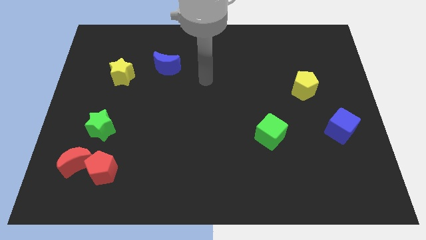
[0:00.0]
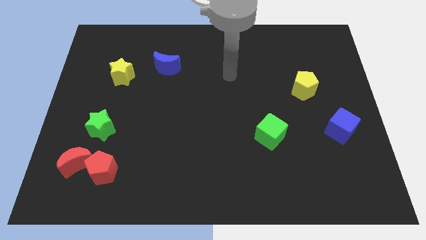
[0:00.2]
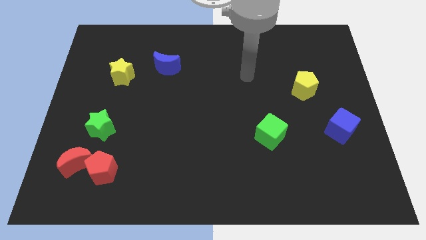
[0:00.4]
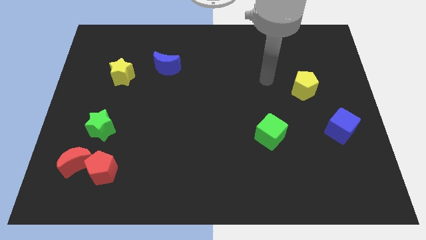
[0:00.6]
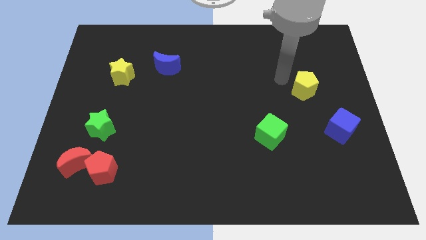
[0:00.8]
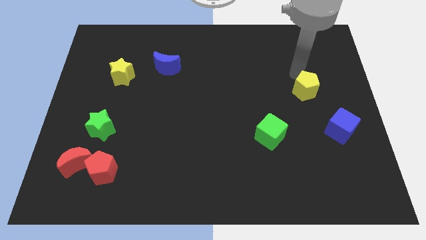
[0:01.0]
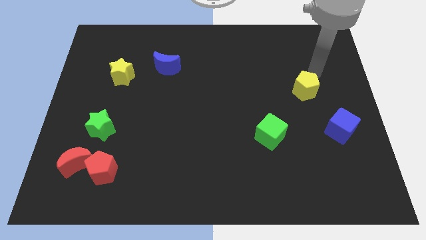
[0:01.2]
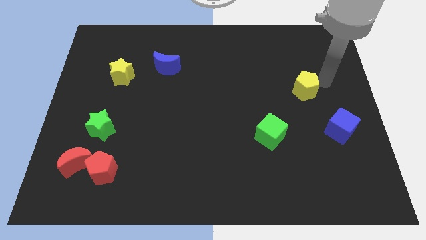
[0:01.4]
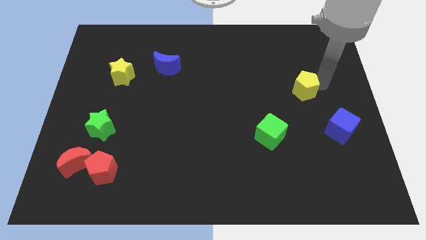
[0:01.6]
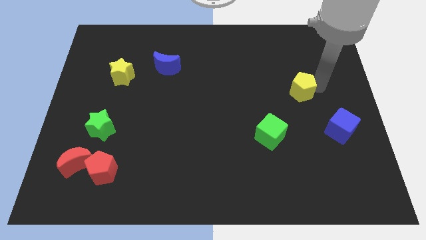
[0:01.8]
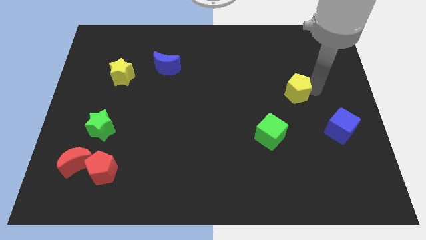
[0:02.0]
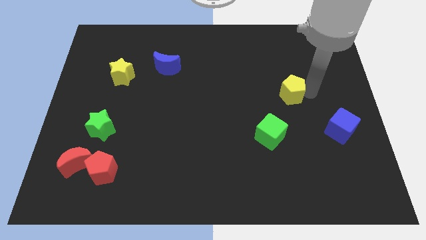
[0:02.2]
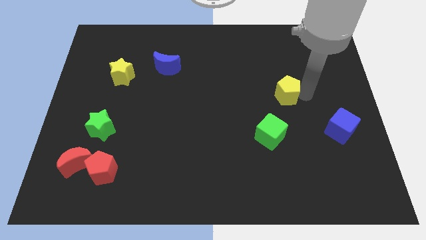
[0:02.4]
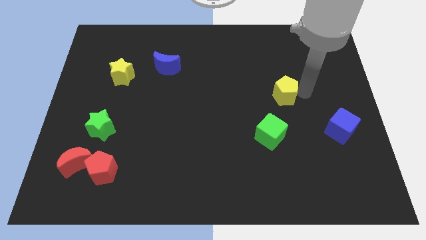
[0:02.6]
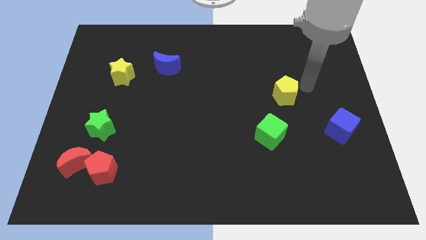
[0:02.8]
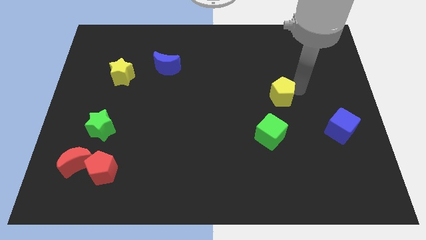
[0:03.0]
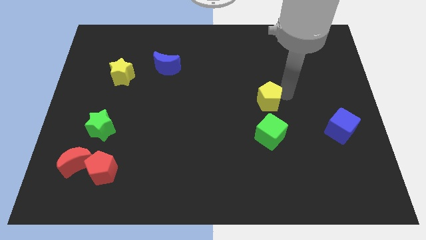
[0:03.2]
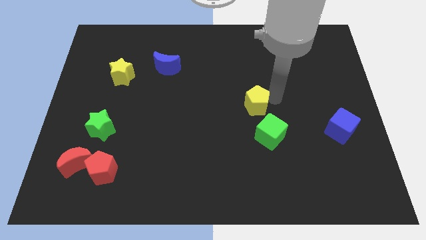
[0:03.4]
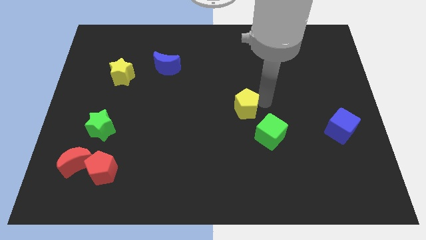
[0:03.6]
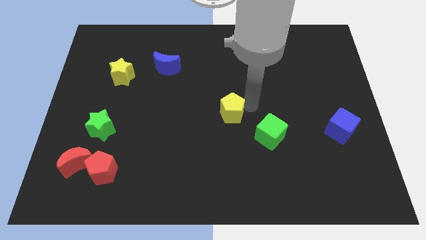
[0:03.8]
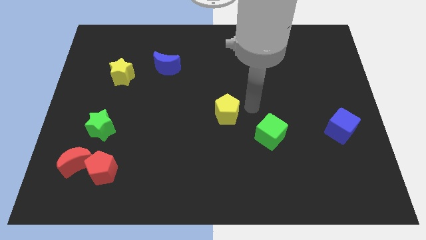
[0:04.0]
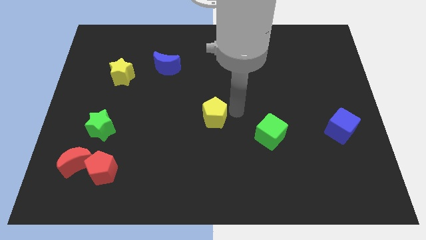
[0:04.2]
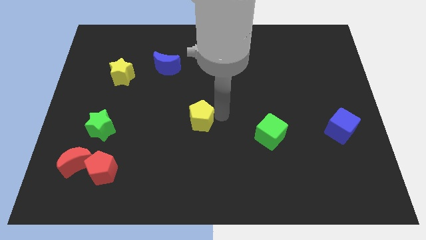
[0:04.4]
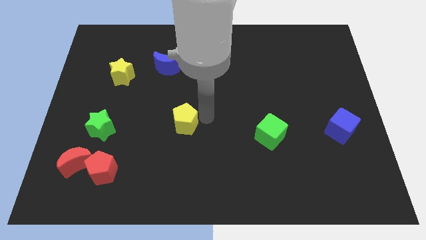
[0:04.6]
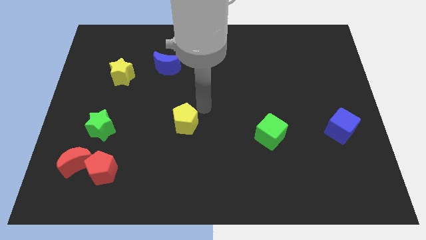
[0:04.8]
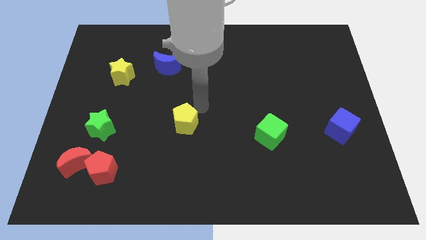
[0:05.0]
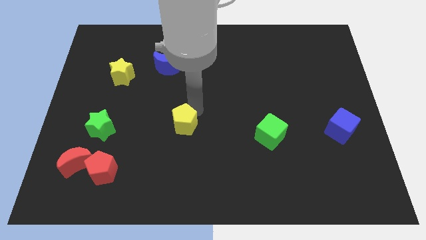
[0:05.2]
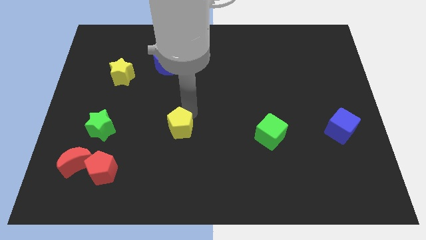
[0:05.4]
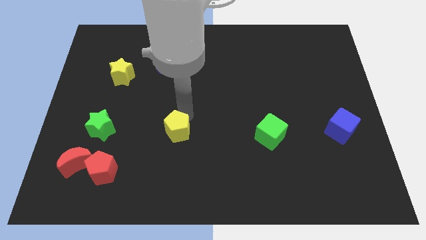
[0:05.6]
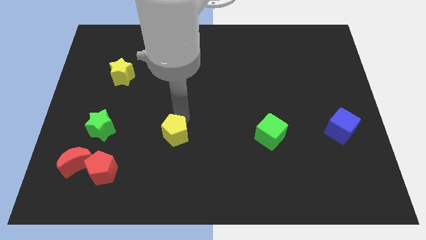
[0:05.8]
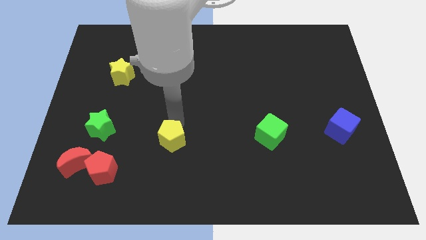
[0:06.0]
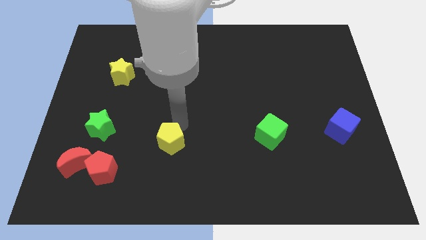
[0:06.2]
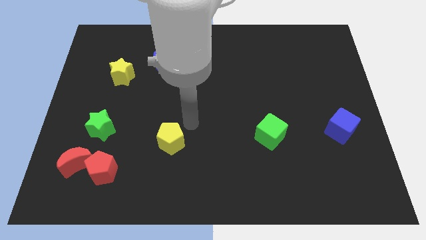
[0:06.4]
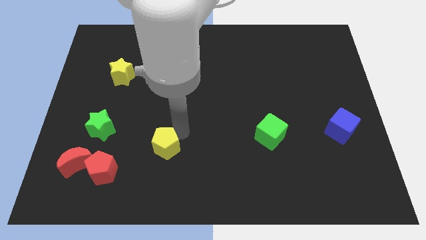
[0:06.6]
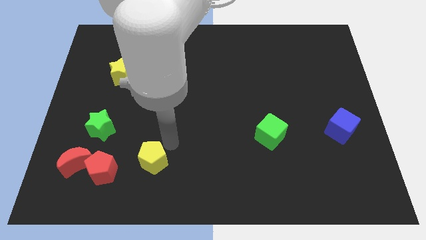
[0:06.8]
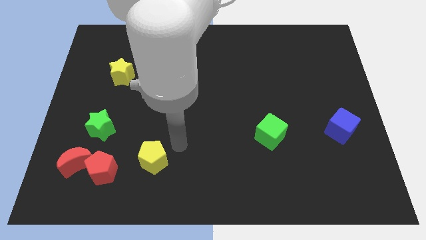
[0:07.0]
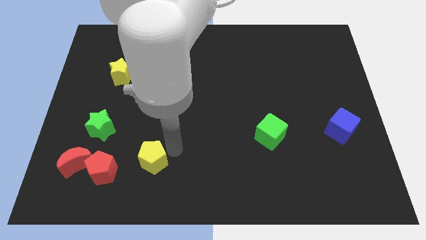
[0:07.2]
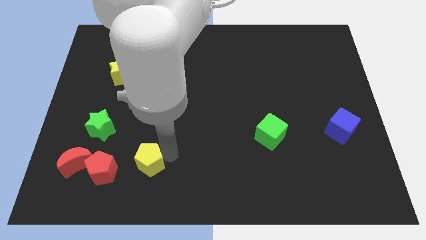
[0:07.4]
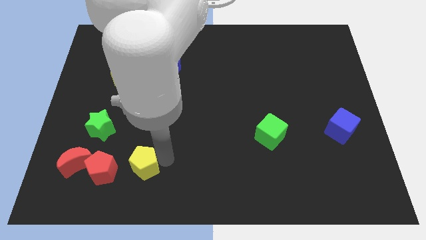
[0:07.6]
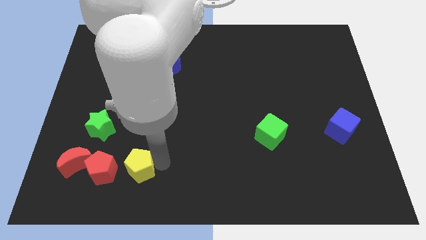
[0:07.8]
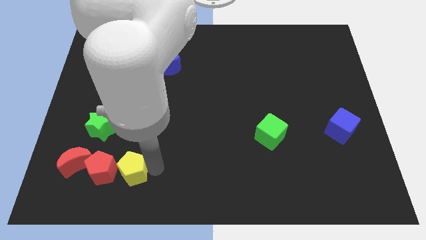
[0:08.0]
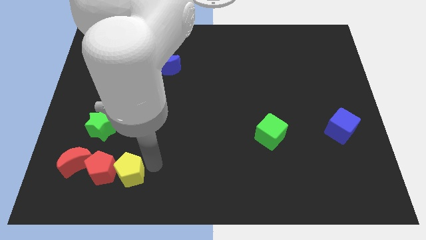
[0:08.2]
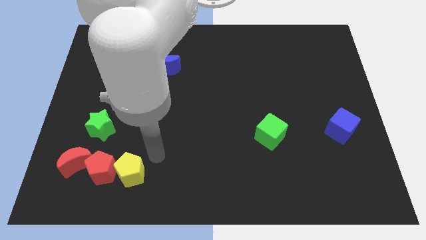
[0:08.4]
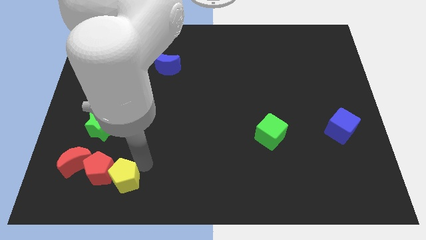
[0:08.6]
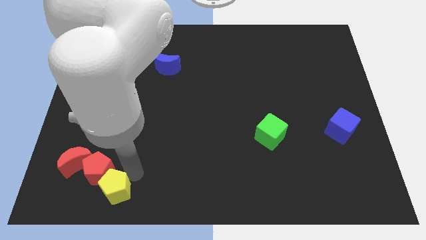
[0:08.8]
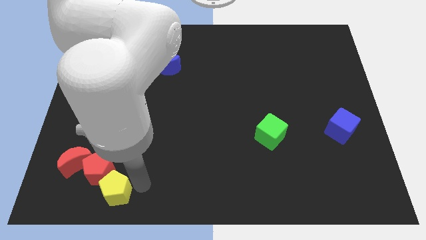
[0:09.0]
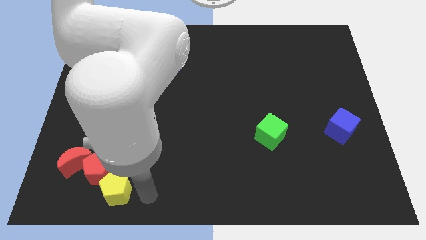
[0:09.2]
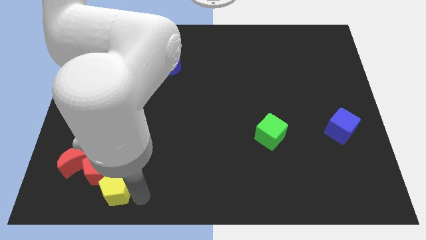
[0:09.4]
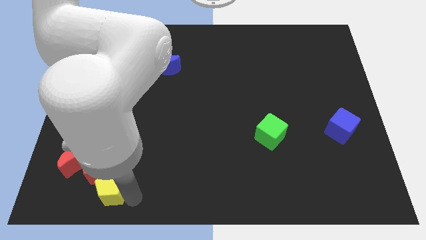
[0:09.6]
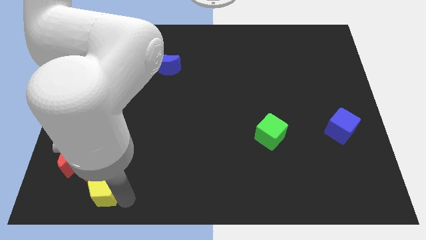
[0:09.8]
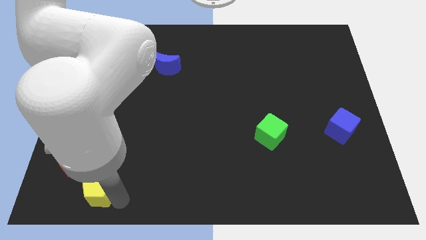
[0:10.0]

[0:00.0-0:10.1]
push the yellow pentagon to the bottom side of the green star

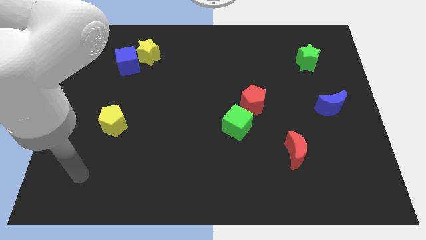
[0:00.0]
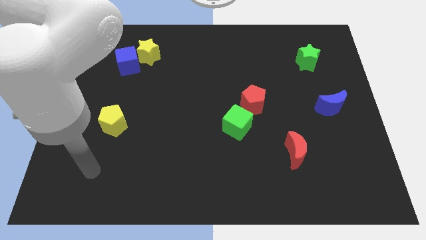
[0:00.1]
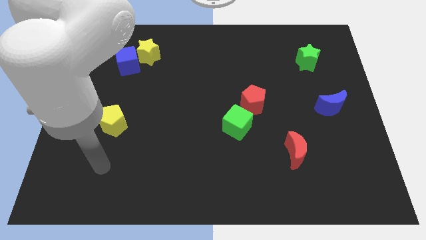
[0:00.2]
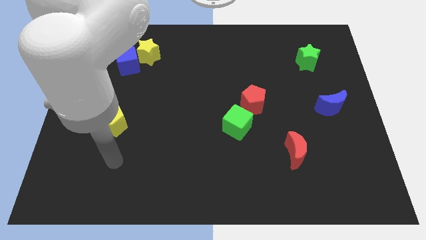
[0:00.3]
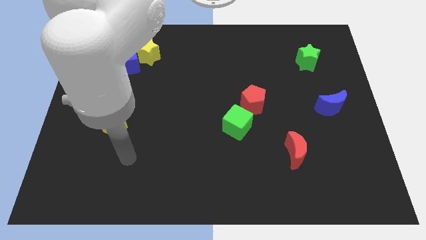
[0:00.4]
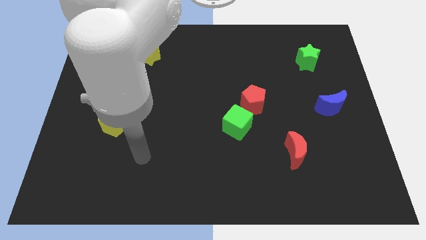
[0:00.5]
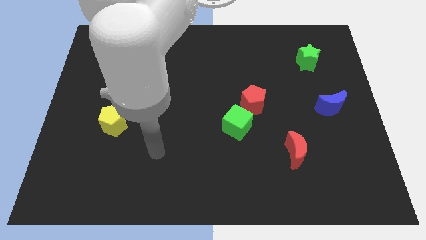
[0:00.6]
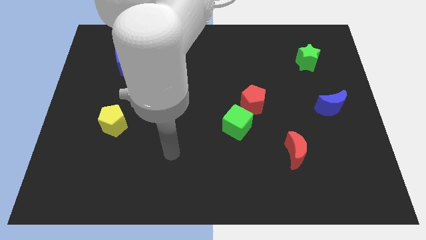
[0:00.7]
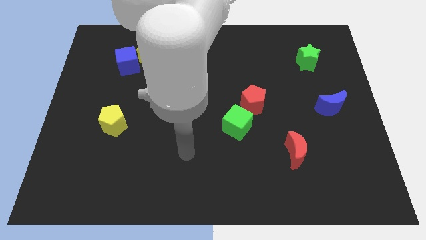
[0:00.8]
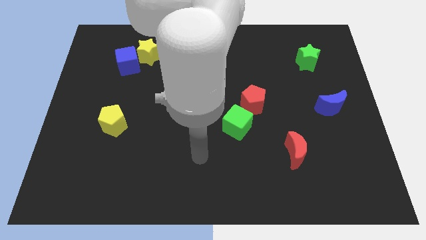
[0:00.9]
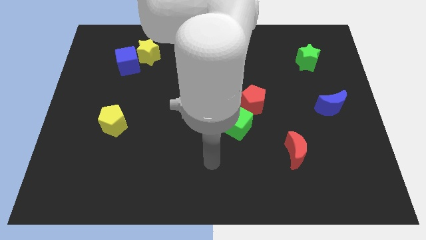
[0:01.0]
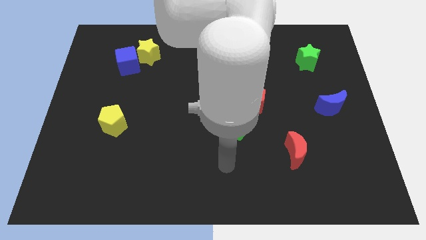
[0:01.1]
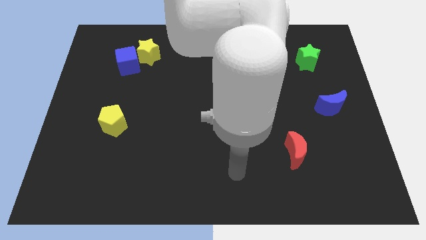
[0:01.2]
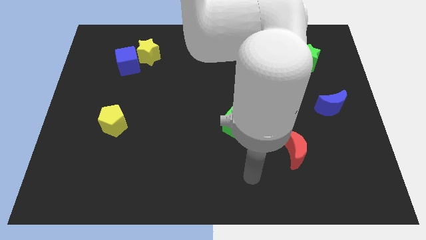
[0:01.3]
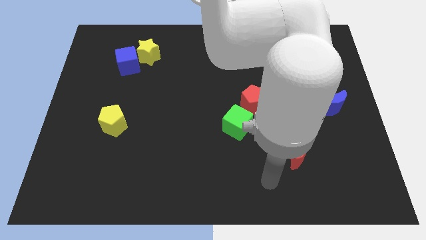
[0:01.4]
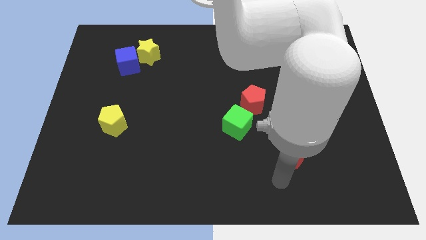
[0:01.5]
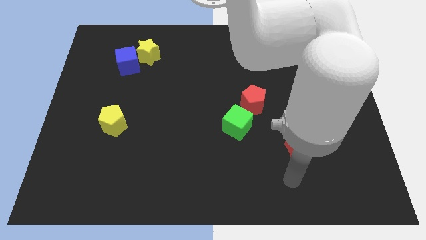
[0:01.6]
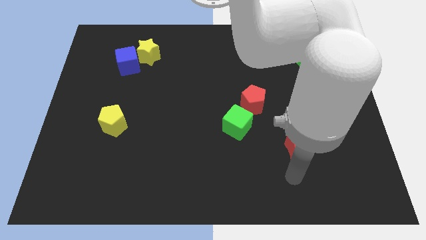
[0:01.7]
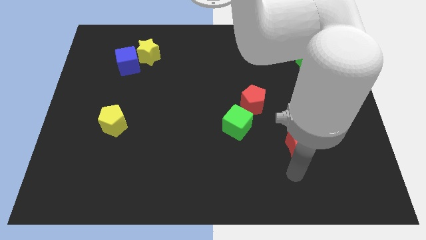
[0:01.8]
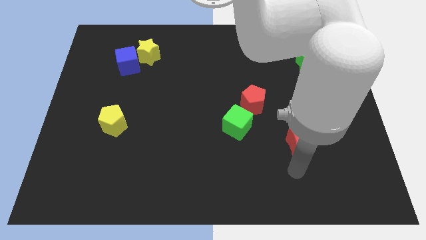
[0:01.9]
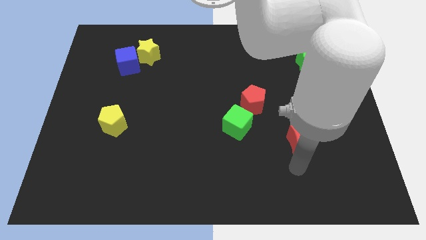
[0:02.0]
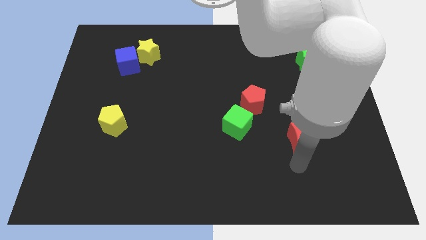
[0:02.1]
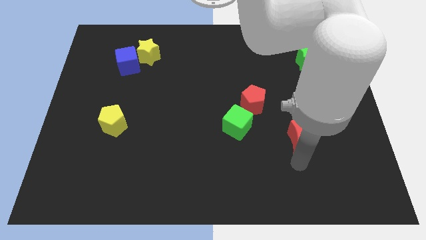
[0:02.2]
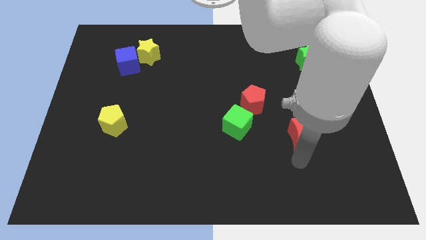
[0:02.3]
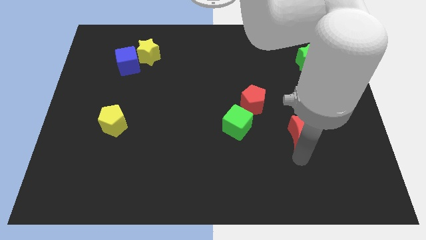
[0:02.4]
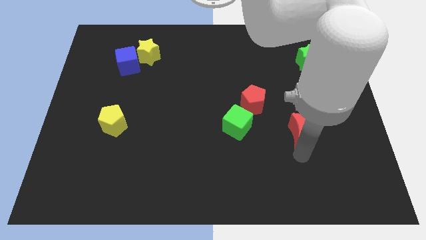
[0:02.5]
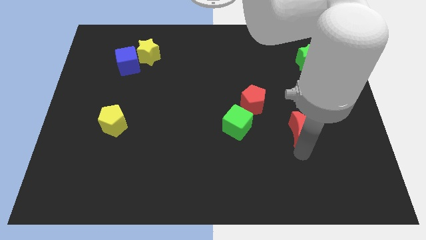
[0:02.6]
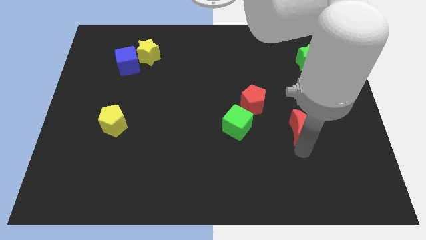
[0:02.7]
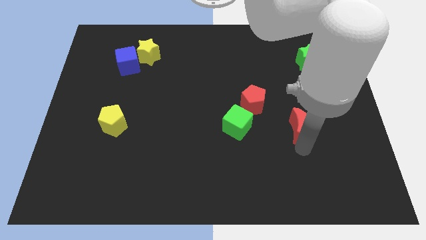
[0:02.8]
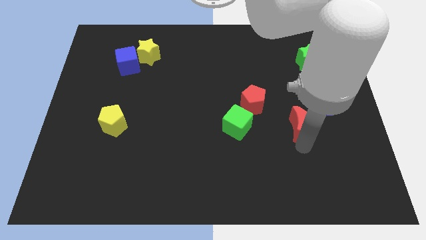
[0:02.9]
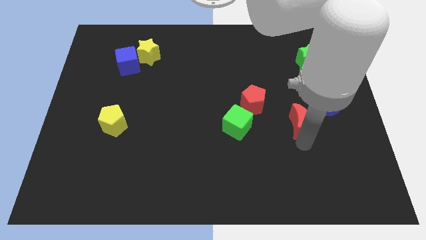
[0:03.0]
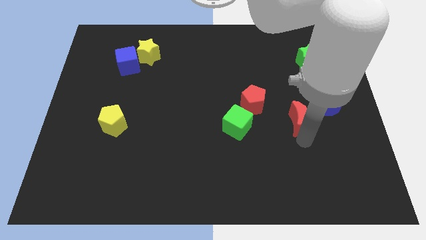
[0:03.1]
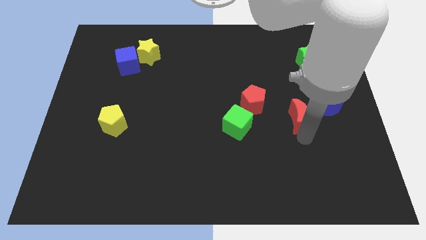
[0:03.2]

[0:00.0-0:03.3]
slide the red moon to the right side of the red pentagon
